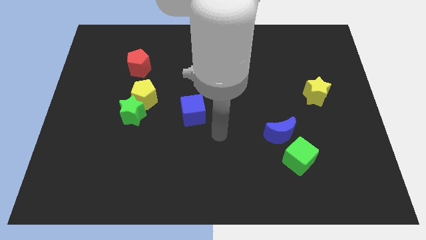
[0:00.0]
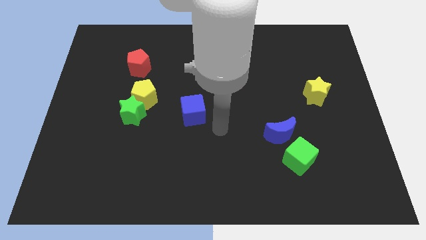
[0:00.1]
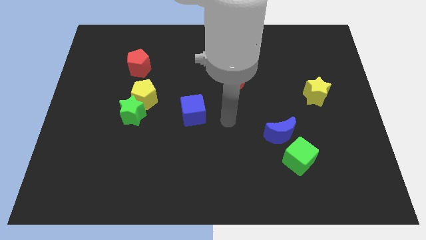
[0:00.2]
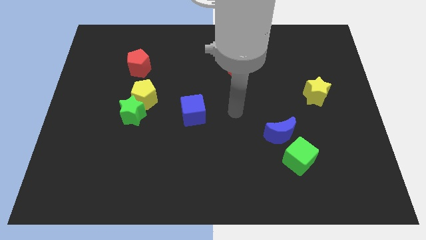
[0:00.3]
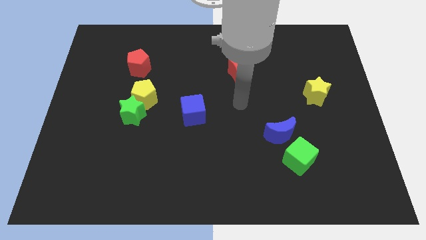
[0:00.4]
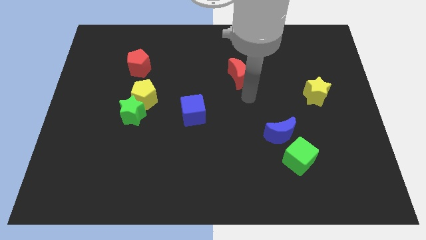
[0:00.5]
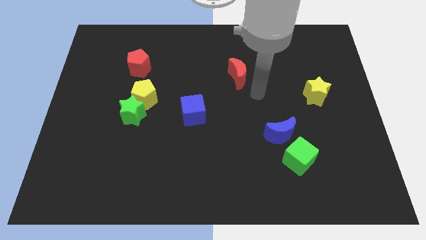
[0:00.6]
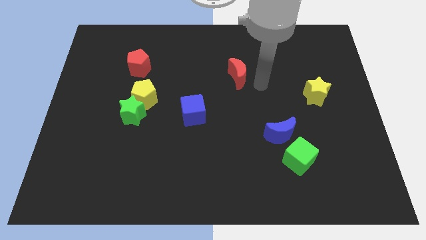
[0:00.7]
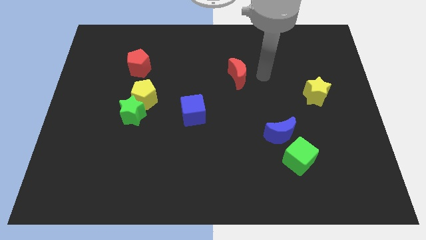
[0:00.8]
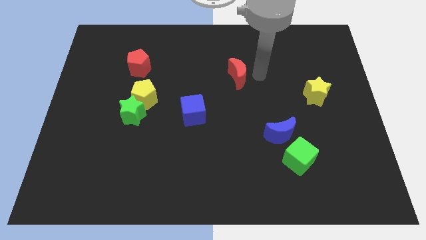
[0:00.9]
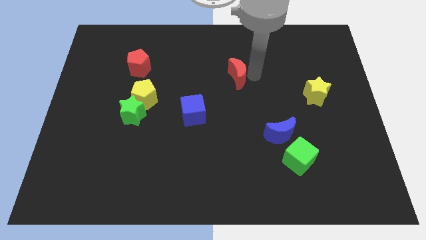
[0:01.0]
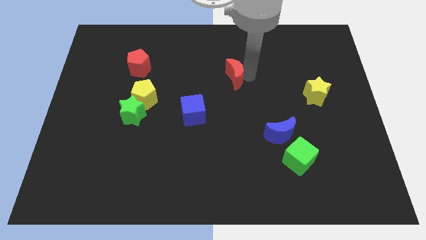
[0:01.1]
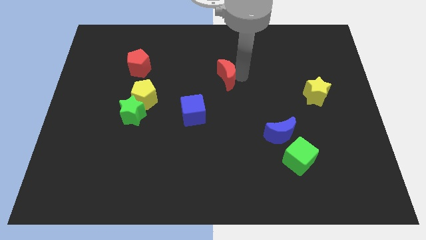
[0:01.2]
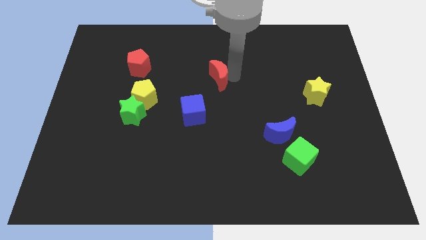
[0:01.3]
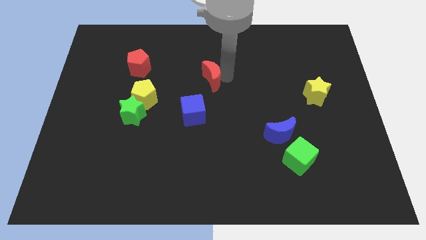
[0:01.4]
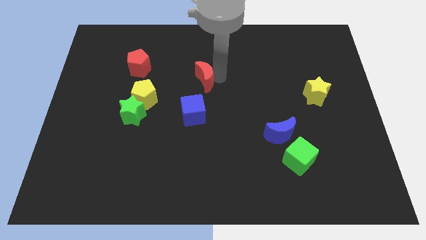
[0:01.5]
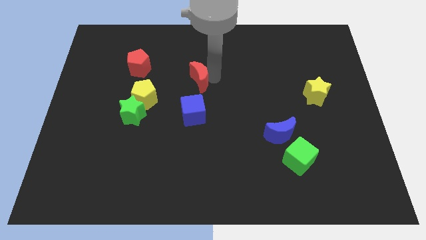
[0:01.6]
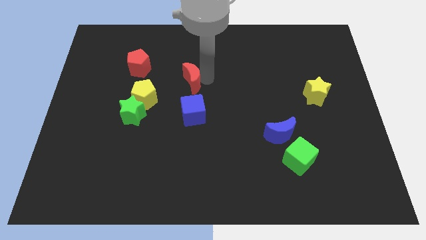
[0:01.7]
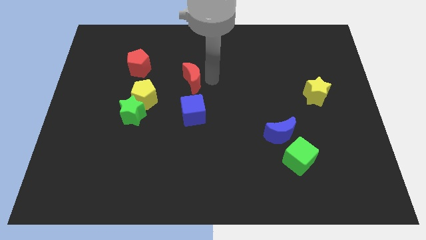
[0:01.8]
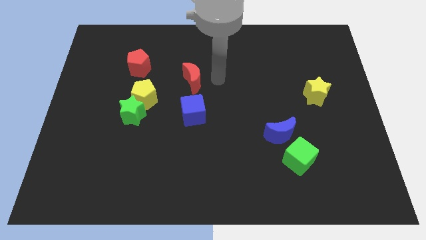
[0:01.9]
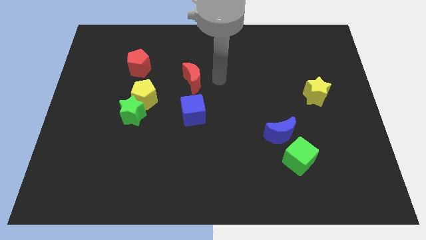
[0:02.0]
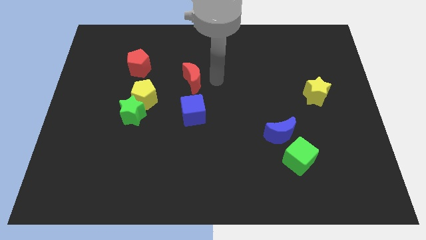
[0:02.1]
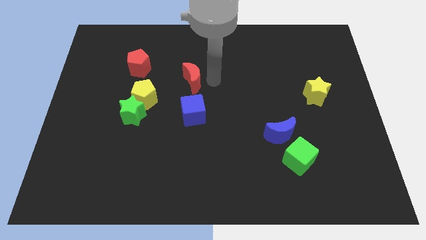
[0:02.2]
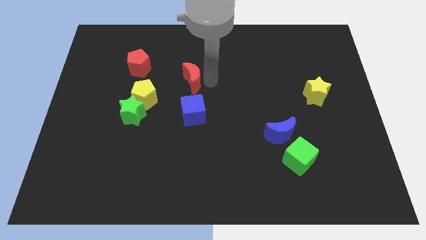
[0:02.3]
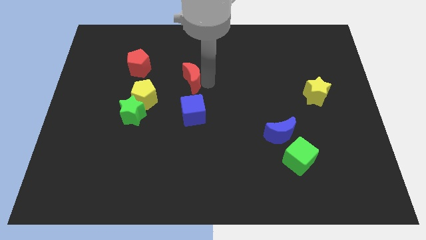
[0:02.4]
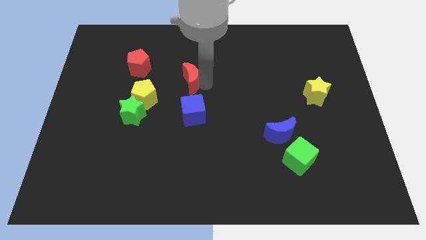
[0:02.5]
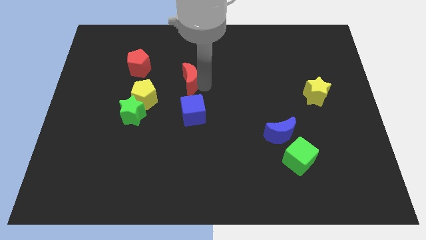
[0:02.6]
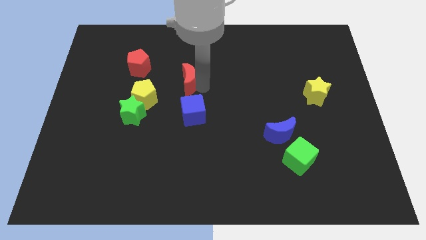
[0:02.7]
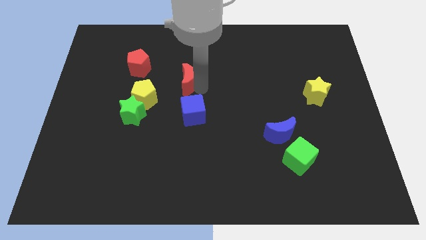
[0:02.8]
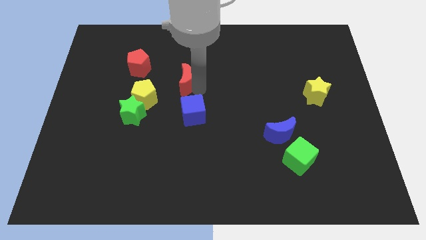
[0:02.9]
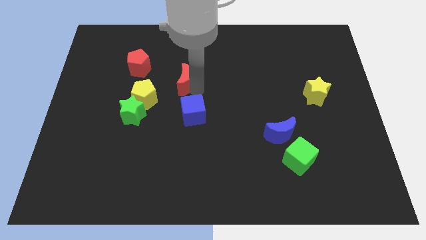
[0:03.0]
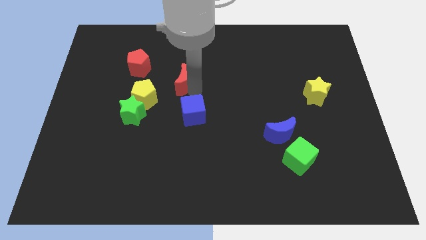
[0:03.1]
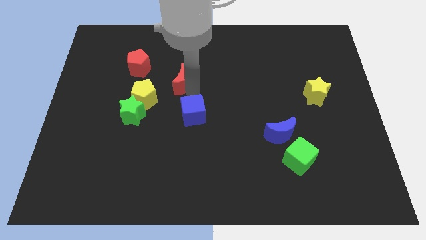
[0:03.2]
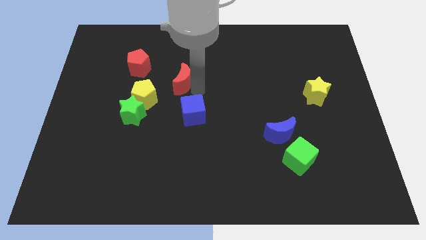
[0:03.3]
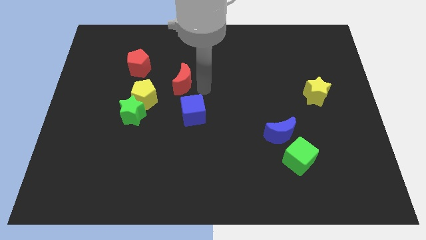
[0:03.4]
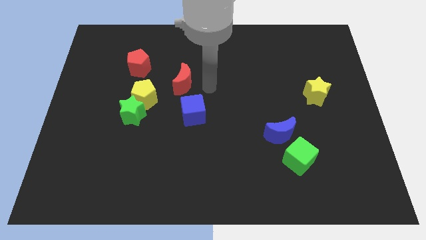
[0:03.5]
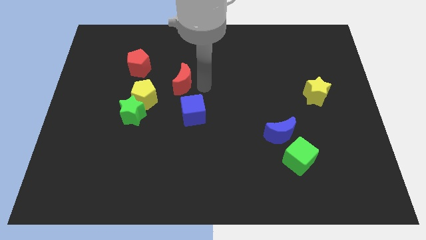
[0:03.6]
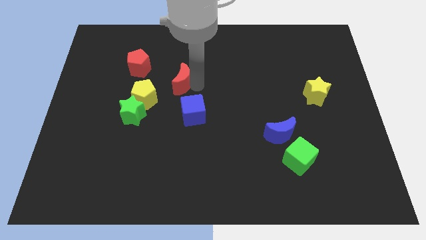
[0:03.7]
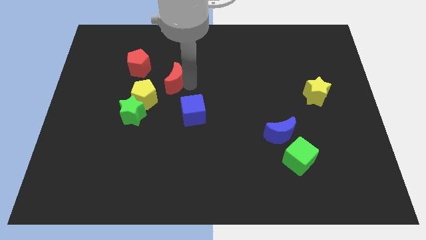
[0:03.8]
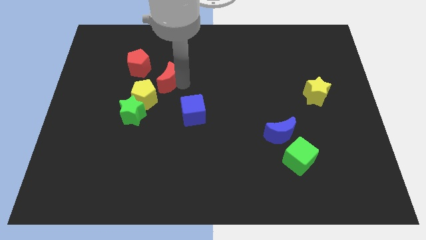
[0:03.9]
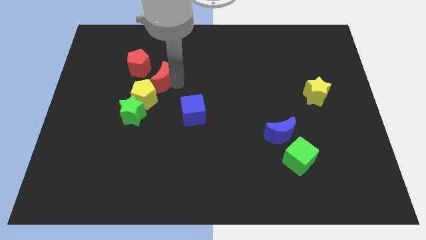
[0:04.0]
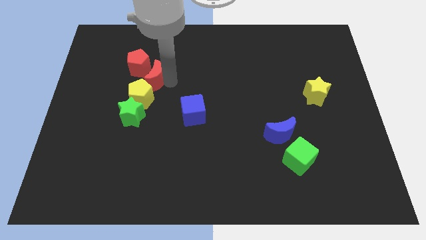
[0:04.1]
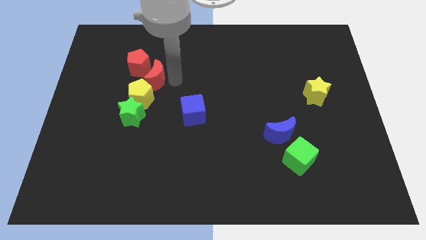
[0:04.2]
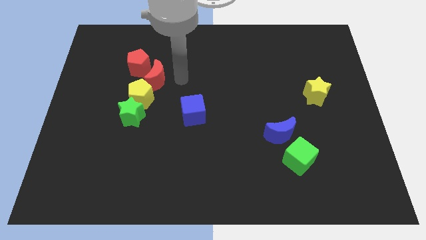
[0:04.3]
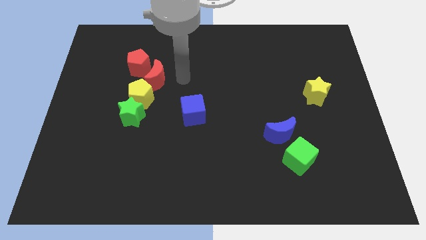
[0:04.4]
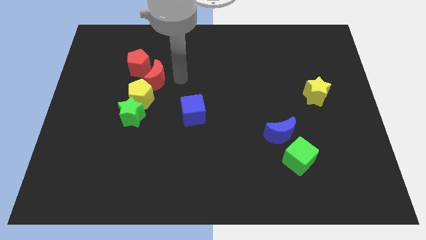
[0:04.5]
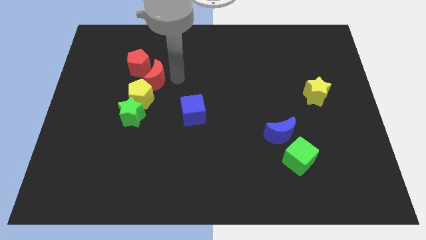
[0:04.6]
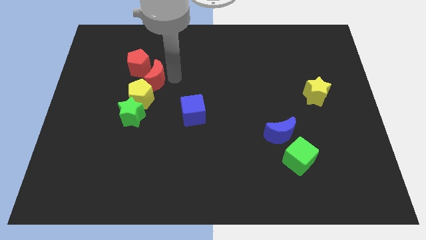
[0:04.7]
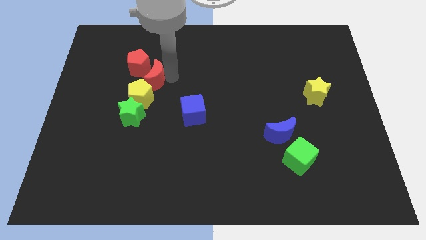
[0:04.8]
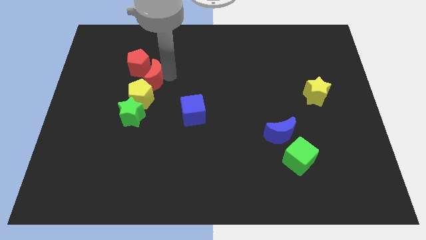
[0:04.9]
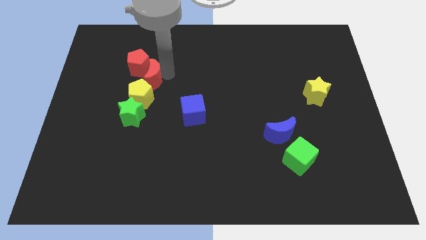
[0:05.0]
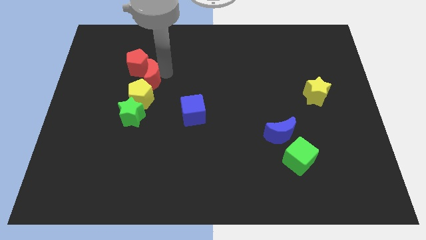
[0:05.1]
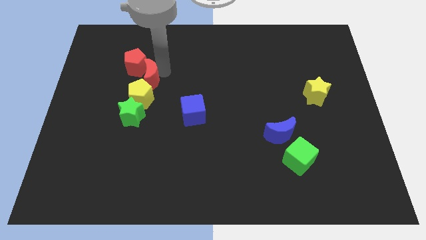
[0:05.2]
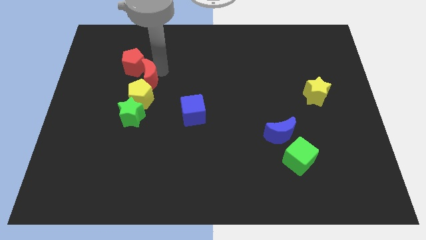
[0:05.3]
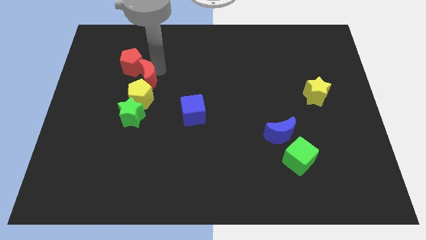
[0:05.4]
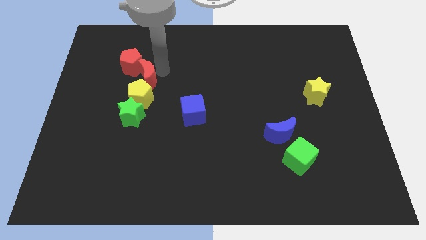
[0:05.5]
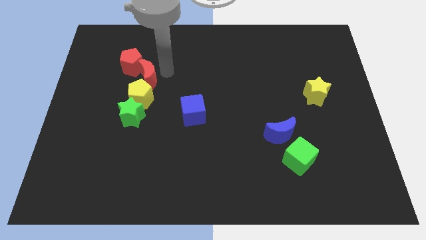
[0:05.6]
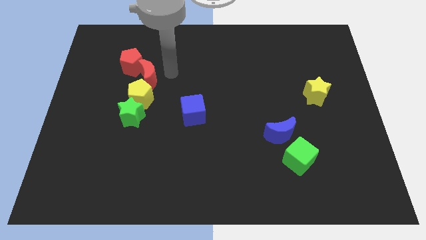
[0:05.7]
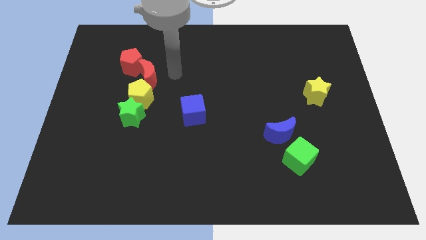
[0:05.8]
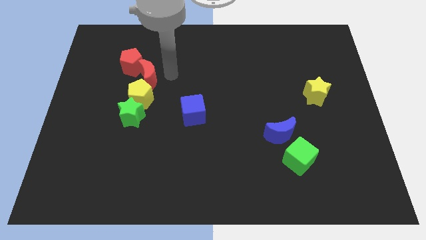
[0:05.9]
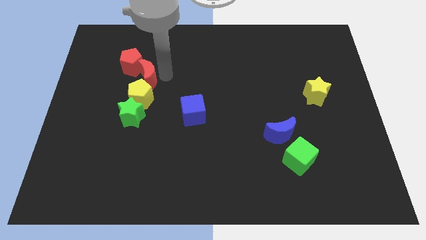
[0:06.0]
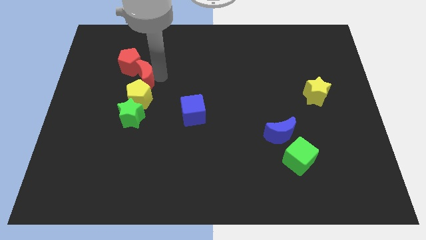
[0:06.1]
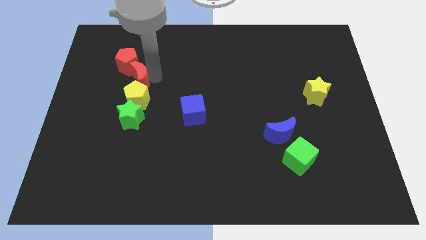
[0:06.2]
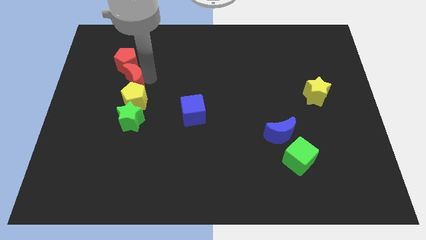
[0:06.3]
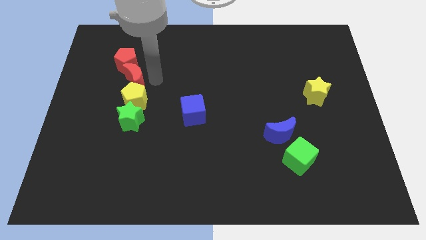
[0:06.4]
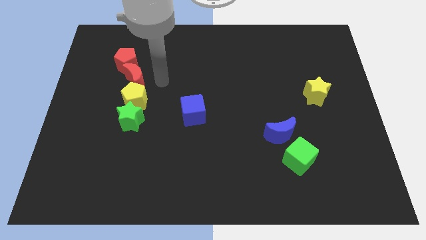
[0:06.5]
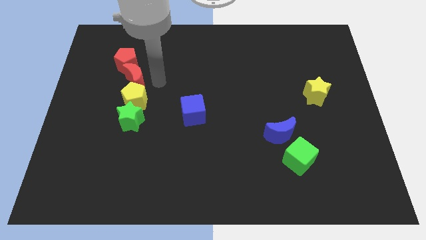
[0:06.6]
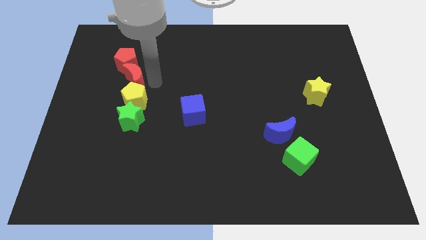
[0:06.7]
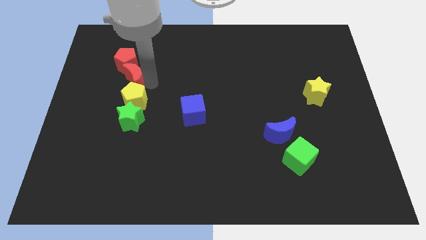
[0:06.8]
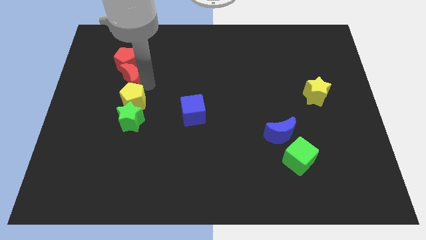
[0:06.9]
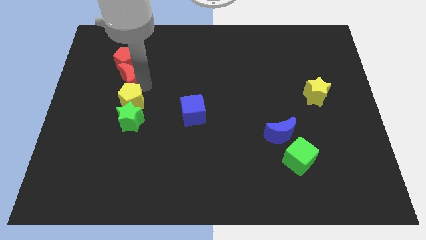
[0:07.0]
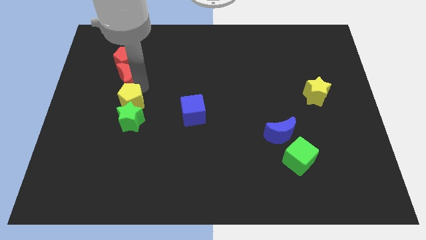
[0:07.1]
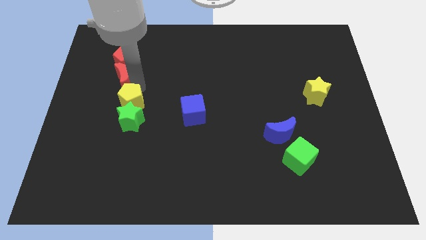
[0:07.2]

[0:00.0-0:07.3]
move the red moon to the bottom left of the red pentagon

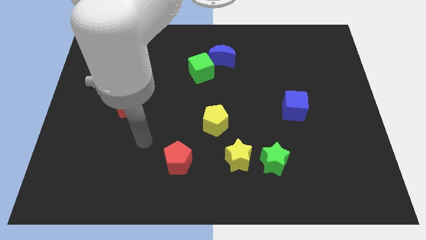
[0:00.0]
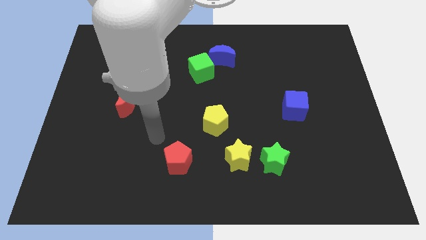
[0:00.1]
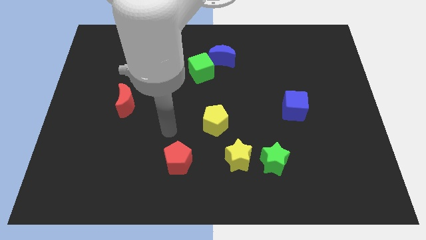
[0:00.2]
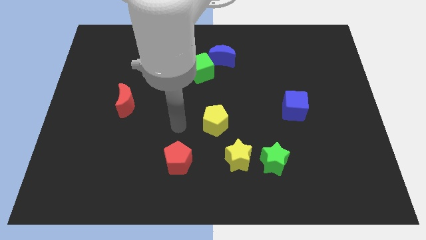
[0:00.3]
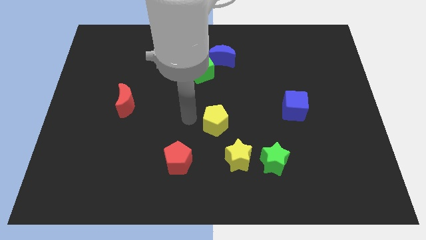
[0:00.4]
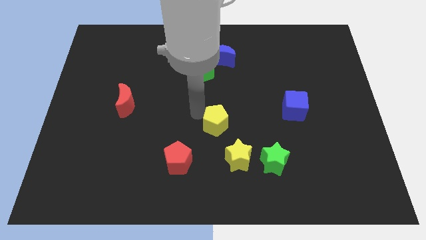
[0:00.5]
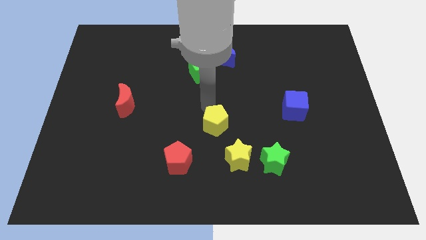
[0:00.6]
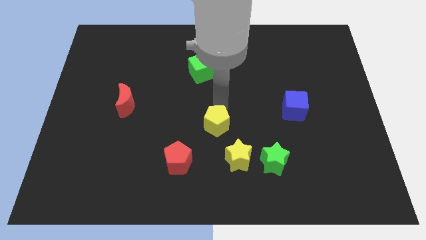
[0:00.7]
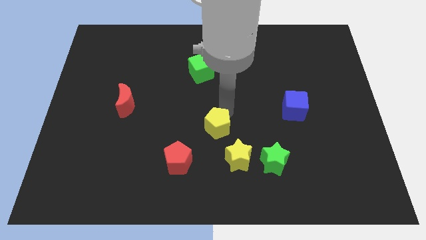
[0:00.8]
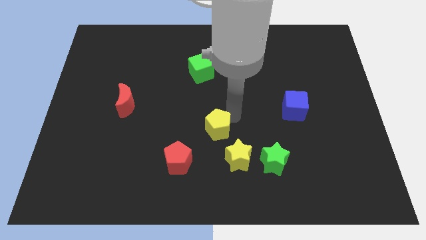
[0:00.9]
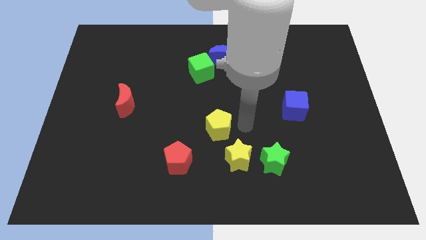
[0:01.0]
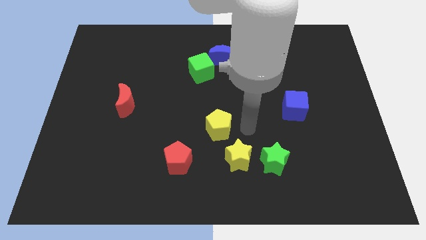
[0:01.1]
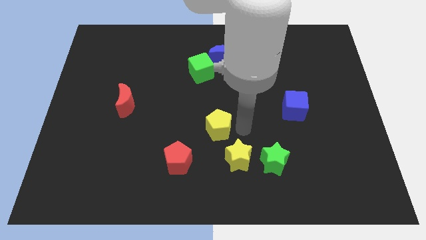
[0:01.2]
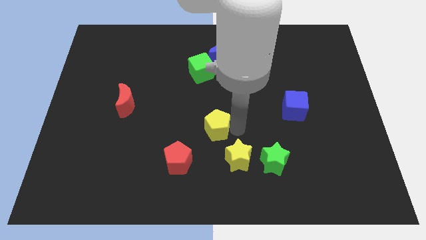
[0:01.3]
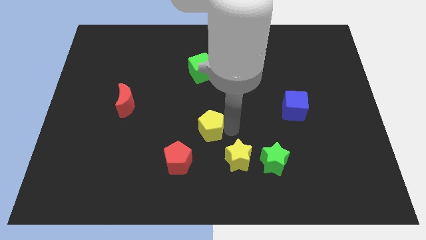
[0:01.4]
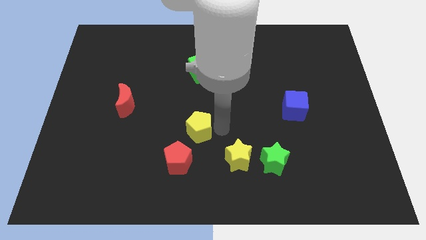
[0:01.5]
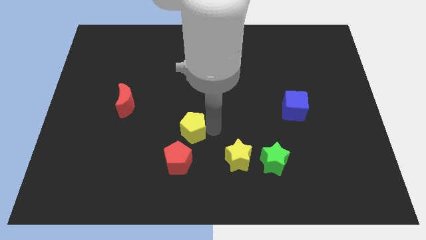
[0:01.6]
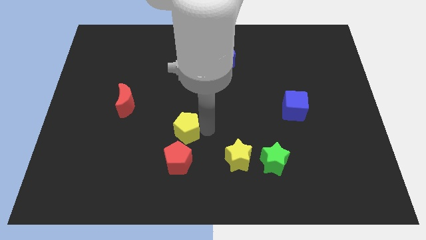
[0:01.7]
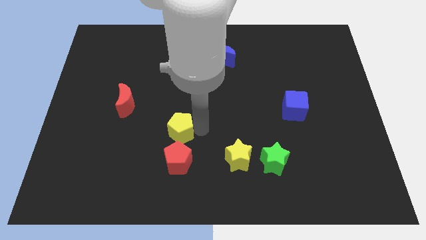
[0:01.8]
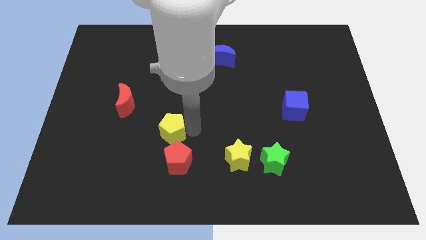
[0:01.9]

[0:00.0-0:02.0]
move the yellow pentagon to the top left of the red pentagon
